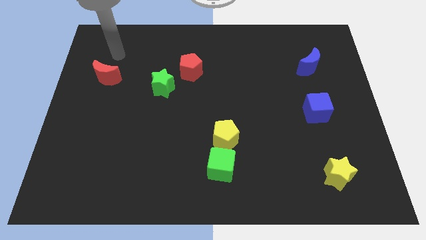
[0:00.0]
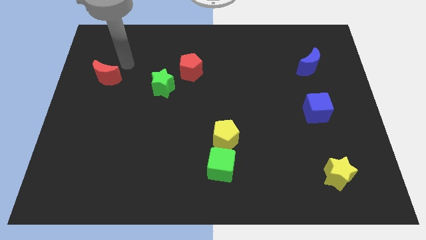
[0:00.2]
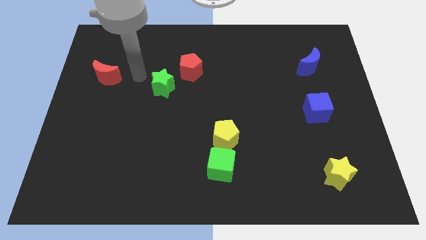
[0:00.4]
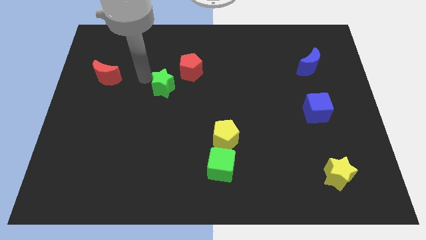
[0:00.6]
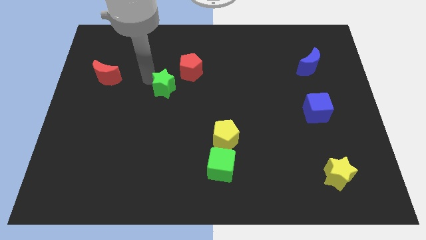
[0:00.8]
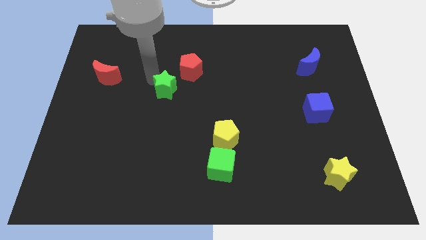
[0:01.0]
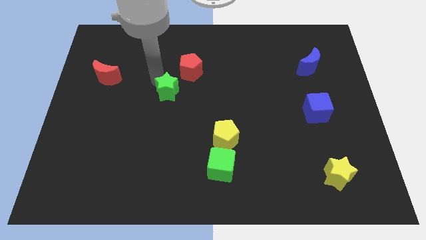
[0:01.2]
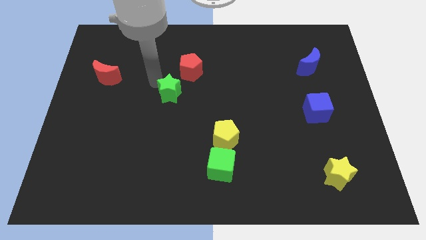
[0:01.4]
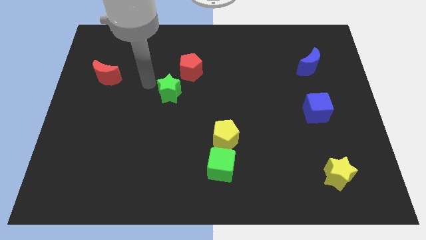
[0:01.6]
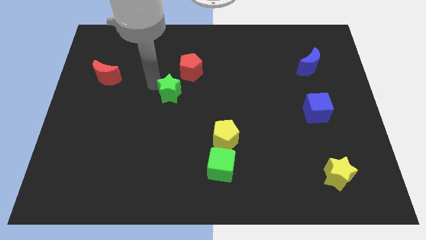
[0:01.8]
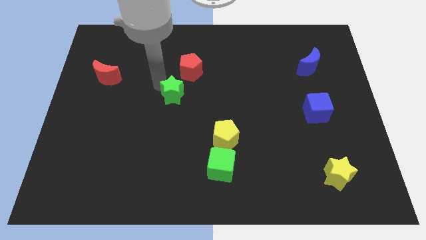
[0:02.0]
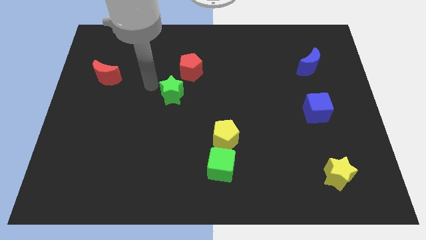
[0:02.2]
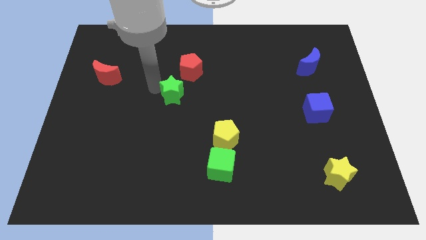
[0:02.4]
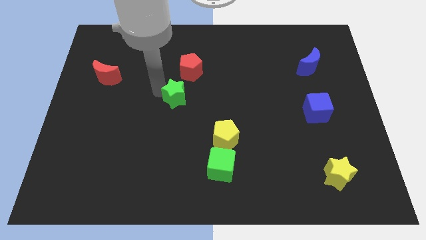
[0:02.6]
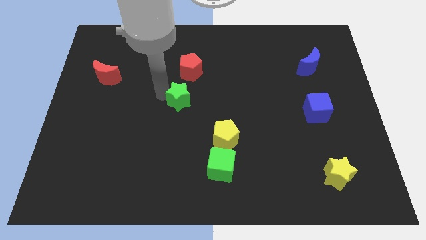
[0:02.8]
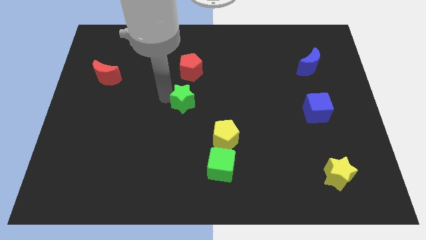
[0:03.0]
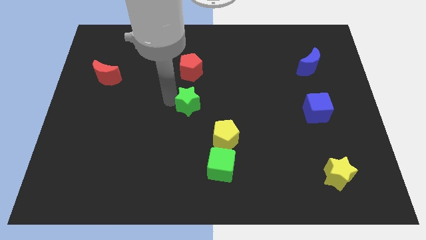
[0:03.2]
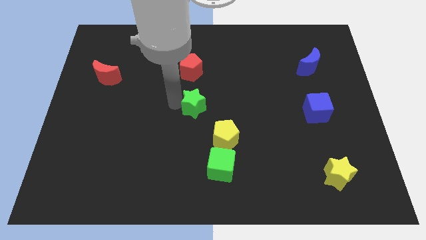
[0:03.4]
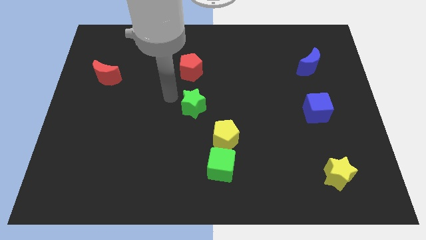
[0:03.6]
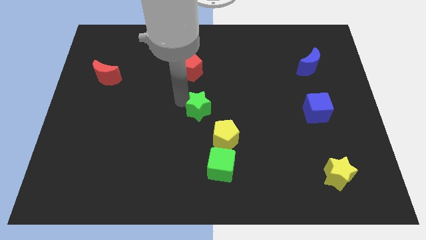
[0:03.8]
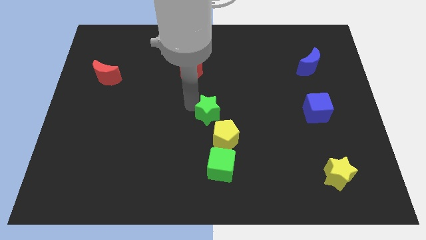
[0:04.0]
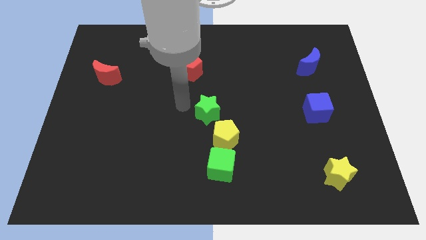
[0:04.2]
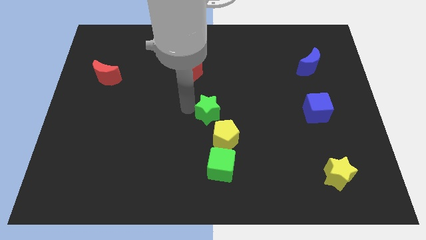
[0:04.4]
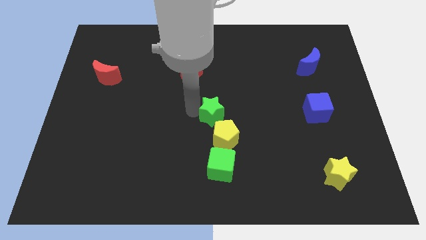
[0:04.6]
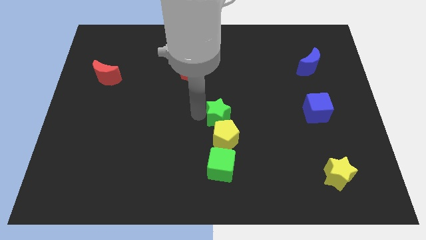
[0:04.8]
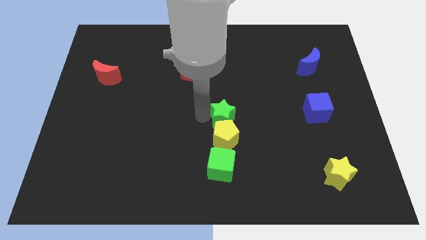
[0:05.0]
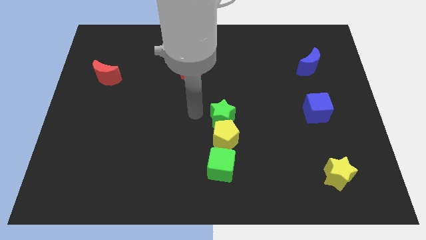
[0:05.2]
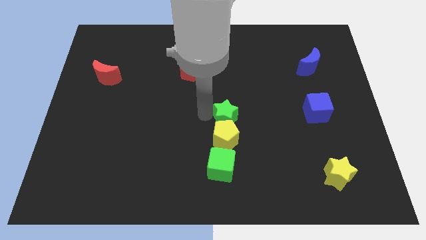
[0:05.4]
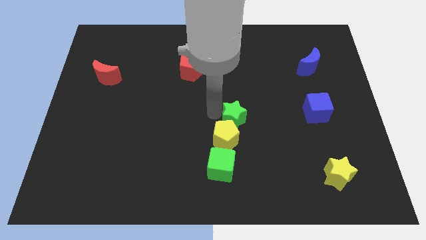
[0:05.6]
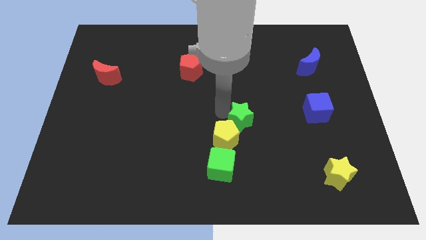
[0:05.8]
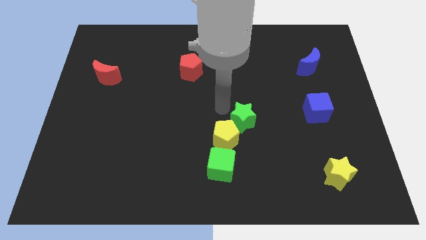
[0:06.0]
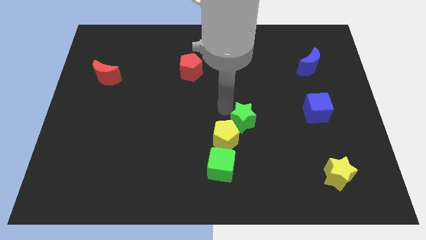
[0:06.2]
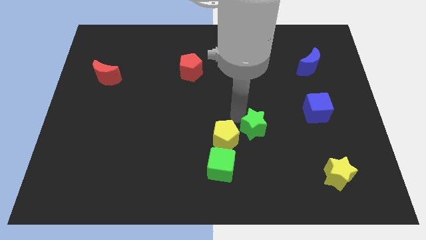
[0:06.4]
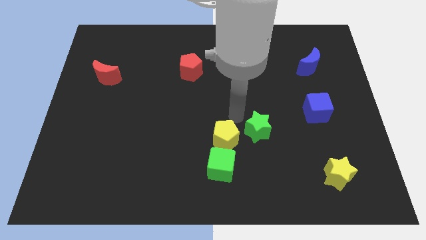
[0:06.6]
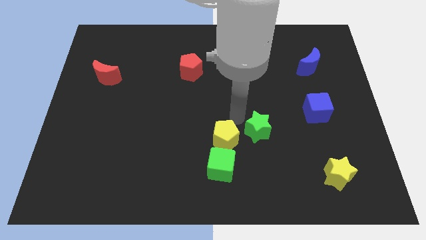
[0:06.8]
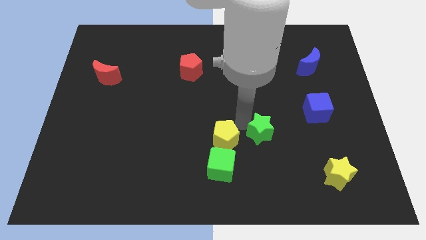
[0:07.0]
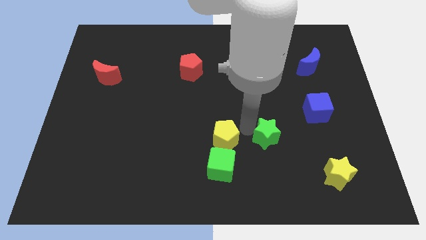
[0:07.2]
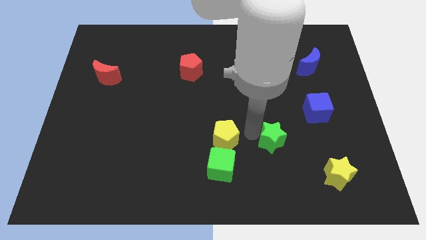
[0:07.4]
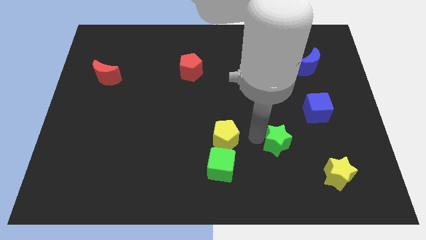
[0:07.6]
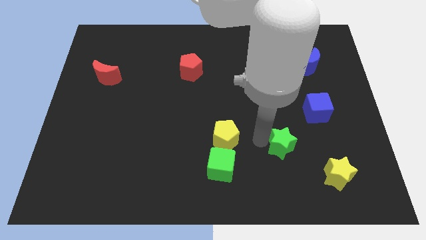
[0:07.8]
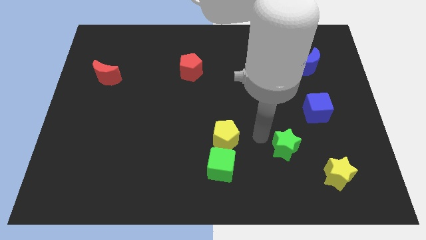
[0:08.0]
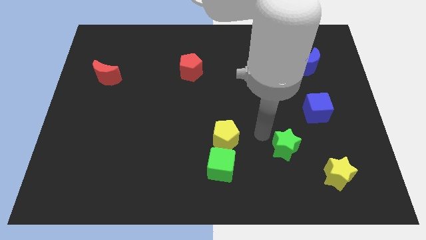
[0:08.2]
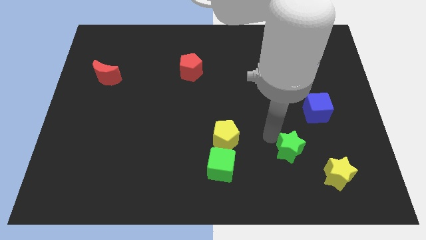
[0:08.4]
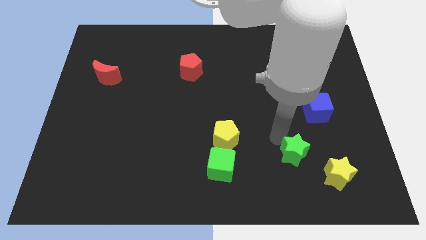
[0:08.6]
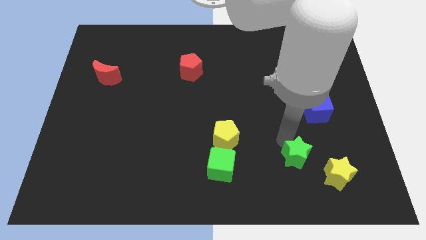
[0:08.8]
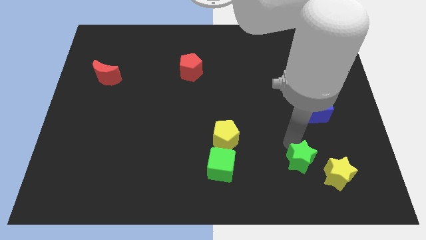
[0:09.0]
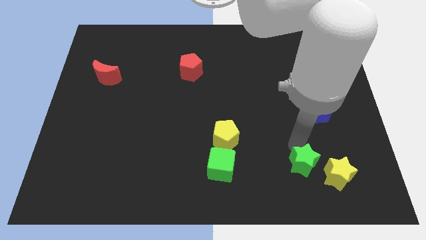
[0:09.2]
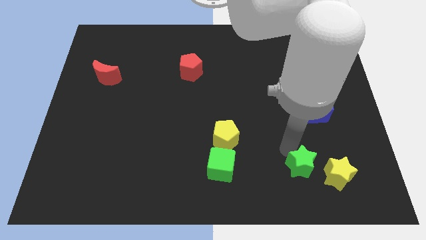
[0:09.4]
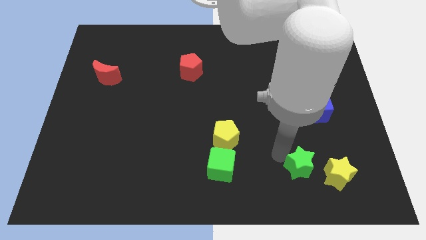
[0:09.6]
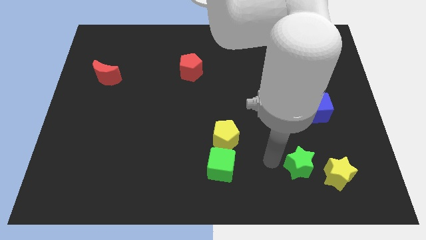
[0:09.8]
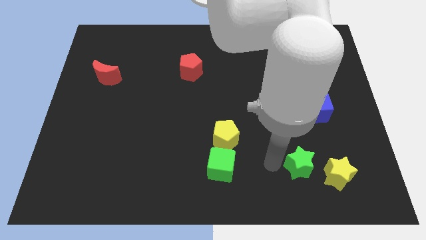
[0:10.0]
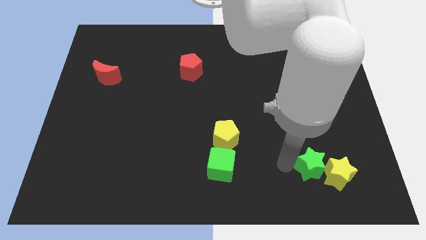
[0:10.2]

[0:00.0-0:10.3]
put the green star close to the yellow star

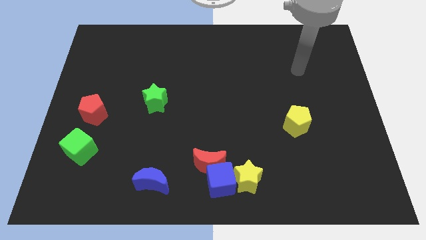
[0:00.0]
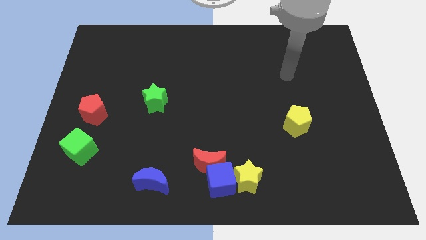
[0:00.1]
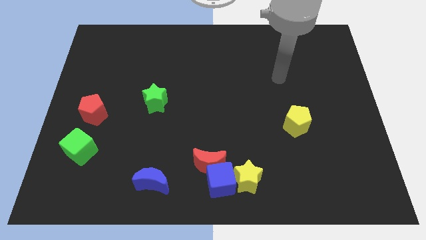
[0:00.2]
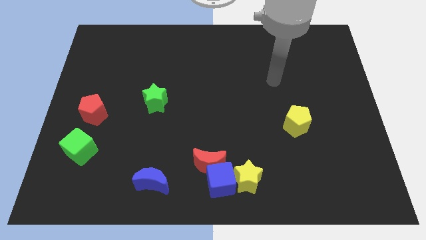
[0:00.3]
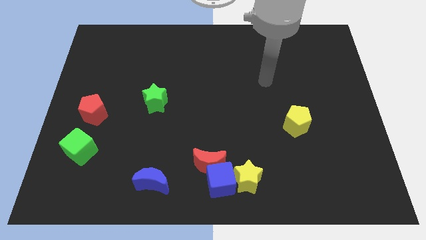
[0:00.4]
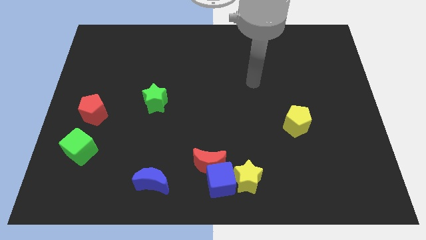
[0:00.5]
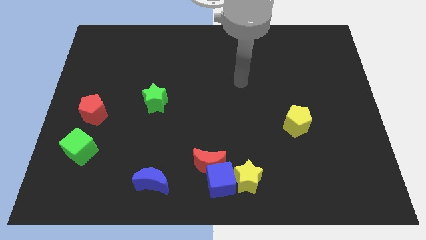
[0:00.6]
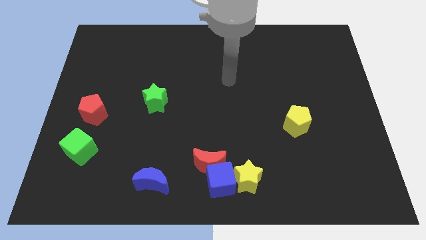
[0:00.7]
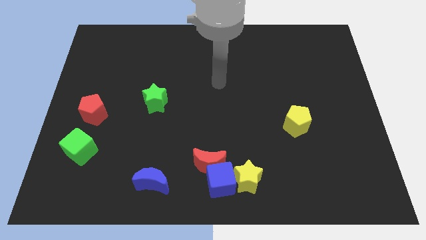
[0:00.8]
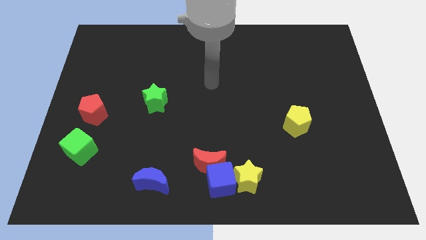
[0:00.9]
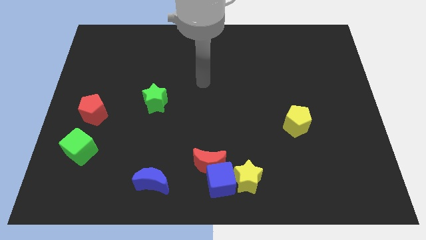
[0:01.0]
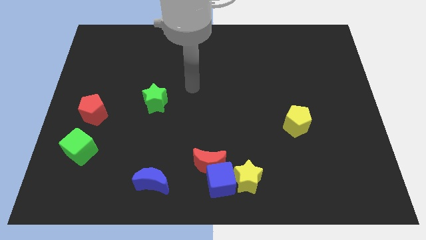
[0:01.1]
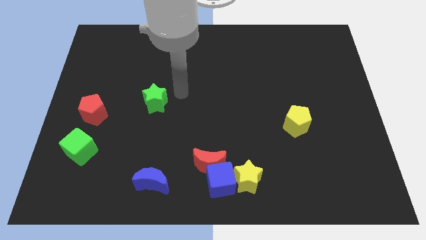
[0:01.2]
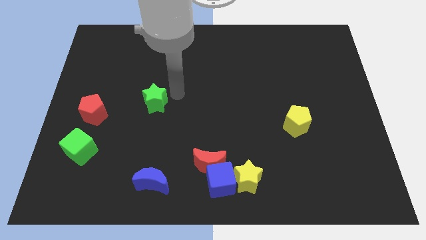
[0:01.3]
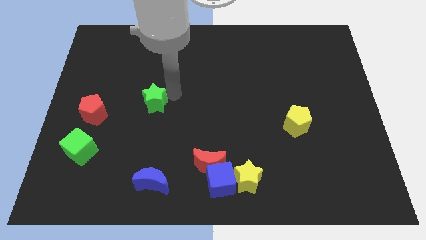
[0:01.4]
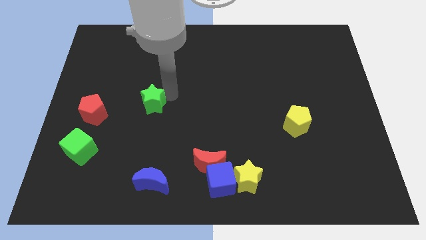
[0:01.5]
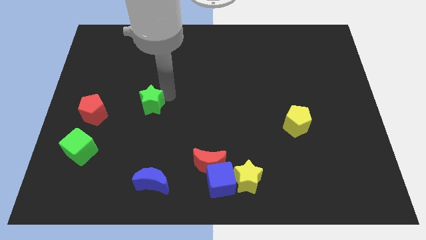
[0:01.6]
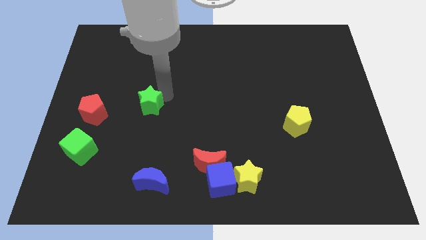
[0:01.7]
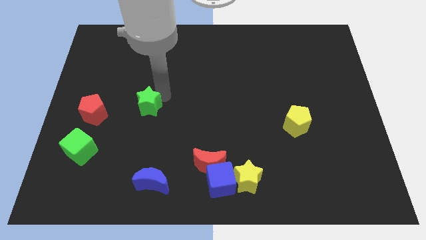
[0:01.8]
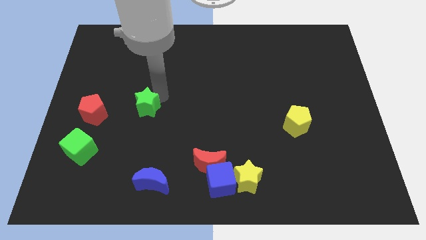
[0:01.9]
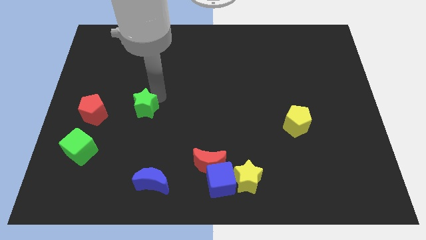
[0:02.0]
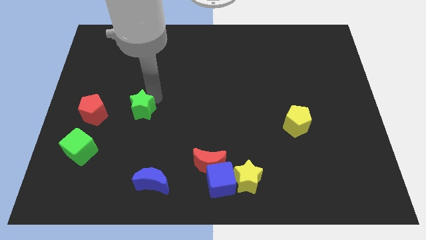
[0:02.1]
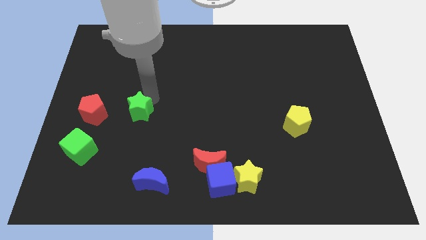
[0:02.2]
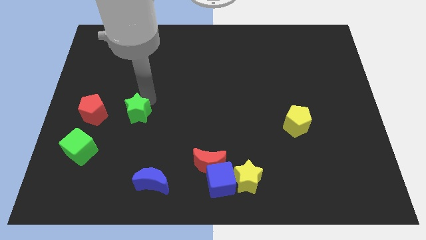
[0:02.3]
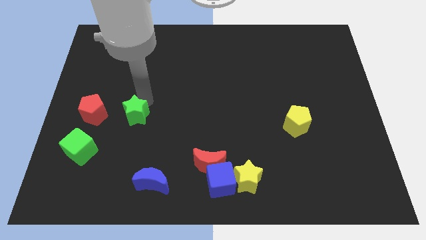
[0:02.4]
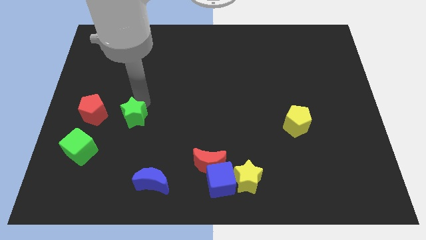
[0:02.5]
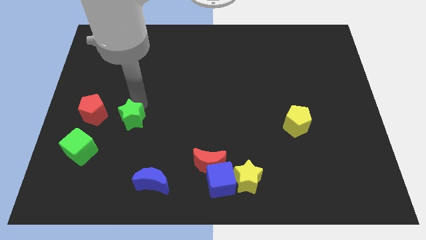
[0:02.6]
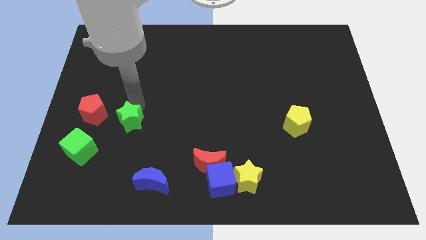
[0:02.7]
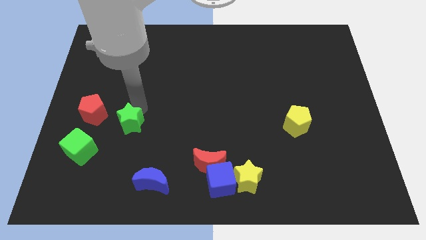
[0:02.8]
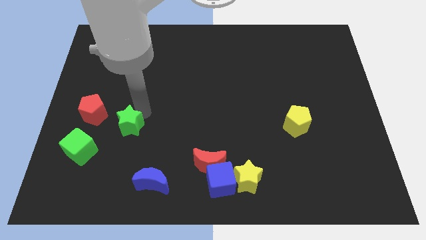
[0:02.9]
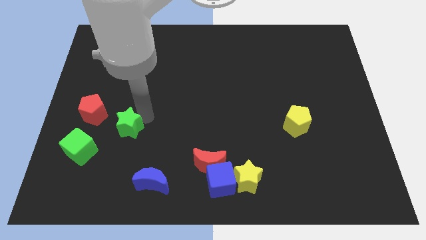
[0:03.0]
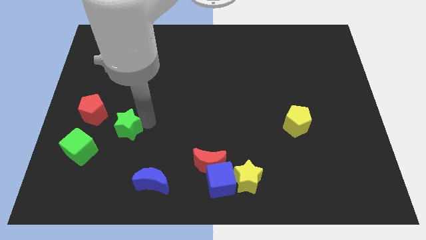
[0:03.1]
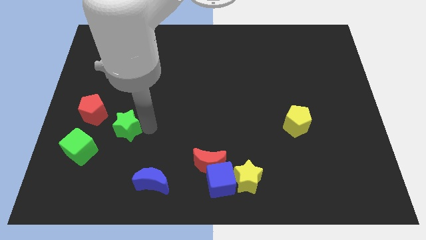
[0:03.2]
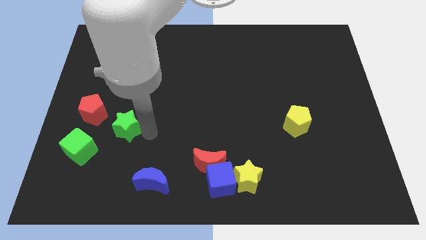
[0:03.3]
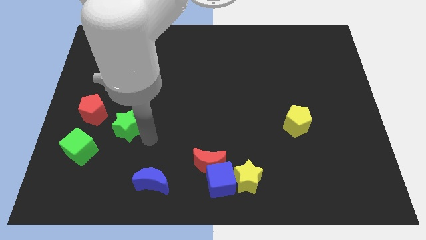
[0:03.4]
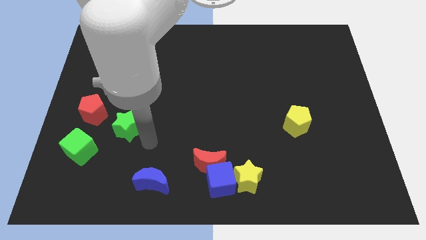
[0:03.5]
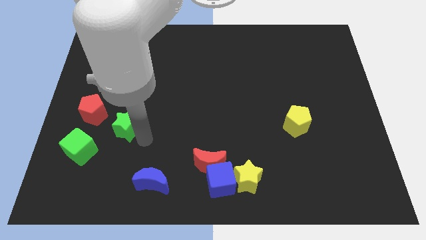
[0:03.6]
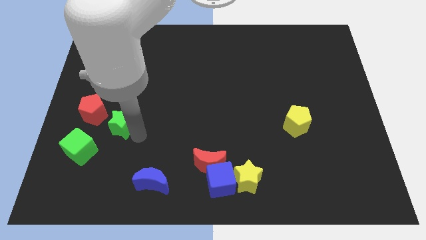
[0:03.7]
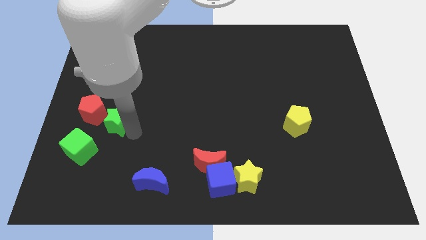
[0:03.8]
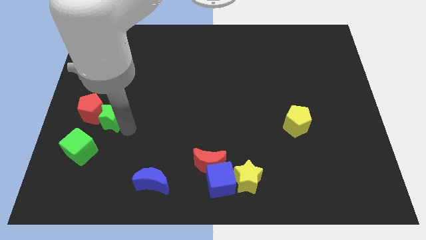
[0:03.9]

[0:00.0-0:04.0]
slide the green star next to the red pentagon
